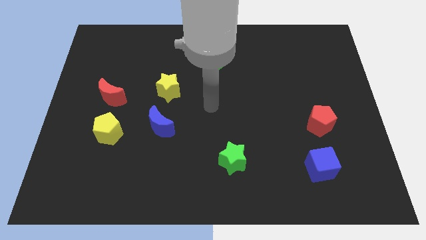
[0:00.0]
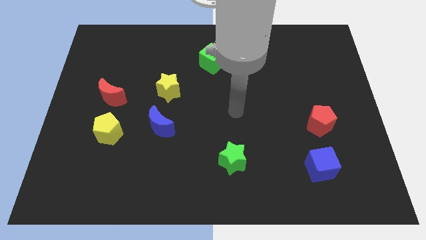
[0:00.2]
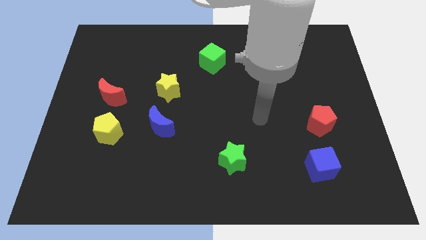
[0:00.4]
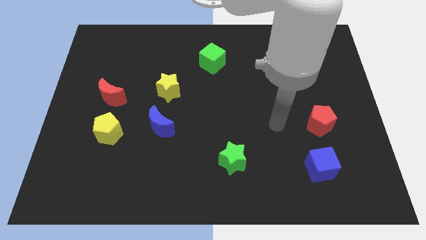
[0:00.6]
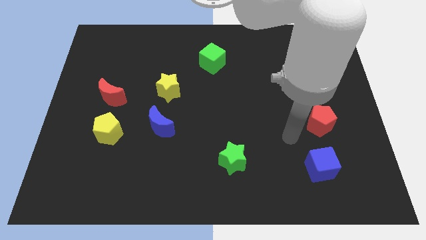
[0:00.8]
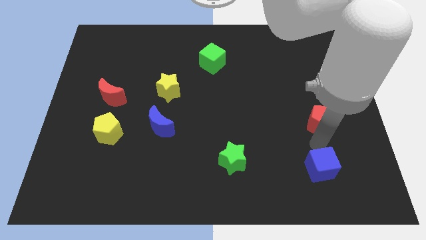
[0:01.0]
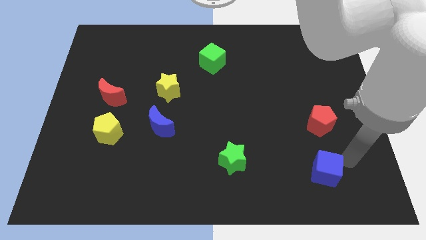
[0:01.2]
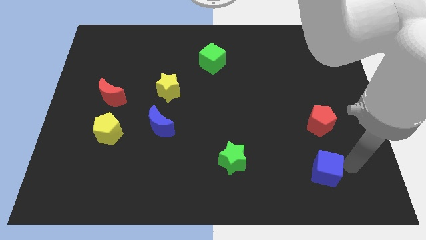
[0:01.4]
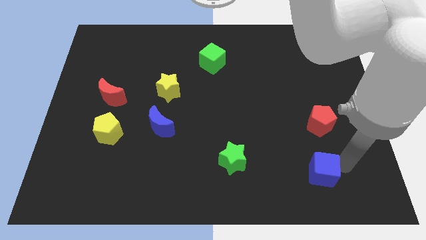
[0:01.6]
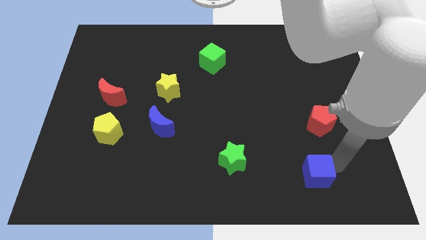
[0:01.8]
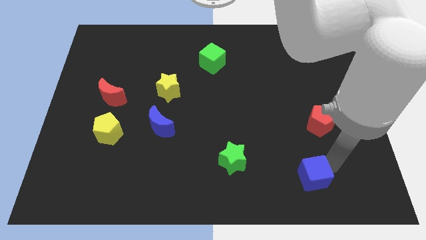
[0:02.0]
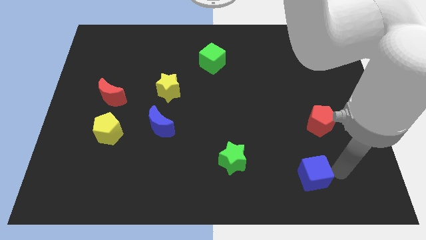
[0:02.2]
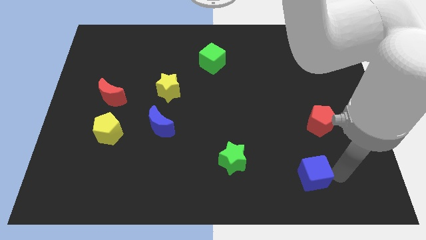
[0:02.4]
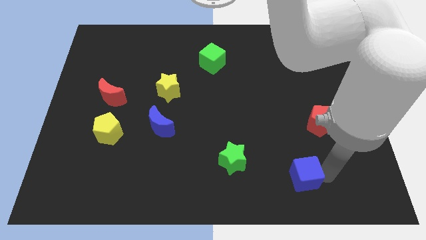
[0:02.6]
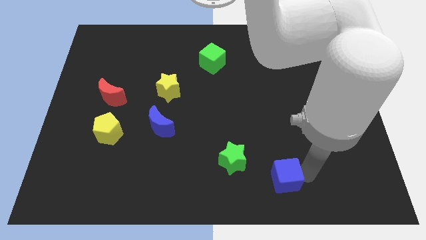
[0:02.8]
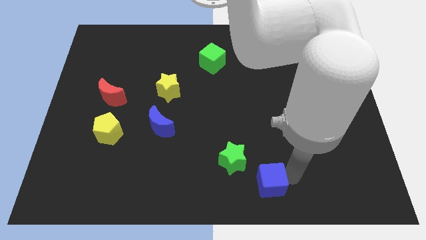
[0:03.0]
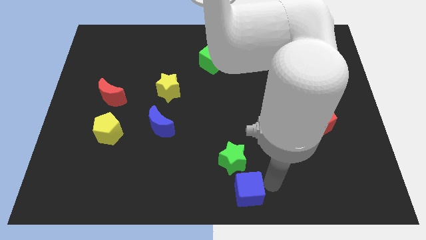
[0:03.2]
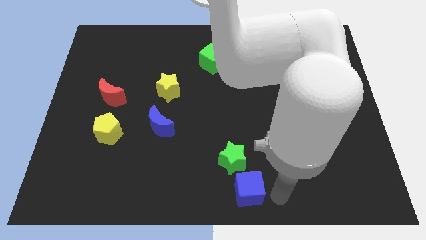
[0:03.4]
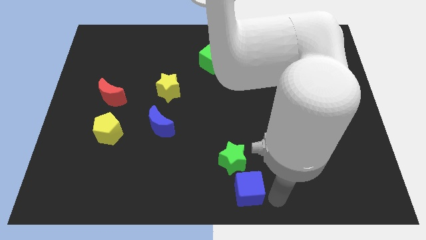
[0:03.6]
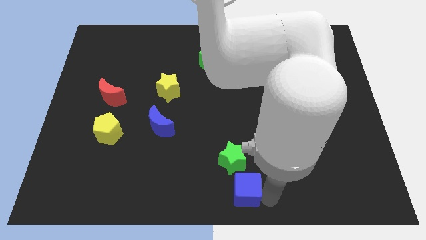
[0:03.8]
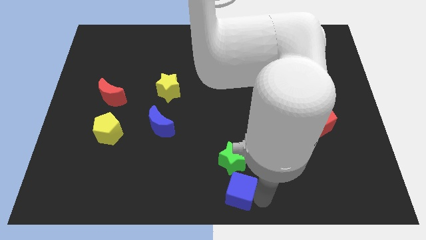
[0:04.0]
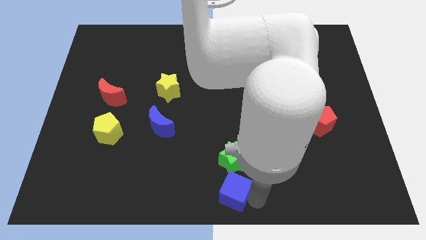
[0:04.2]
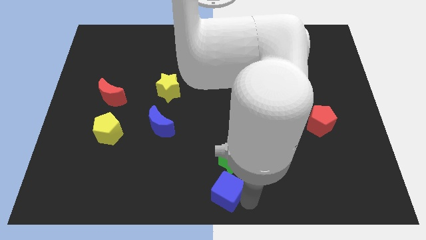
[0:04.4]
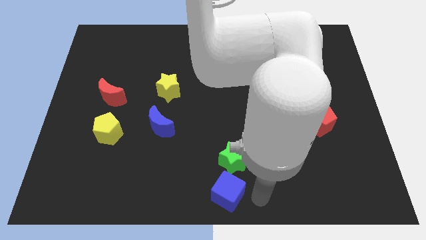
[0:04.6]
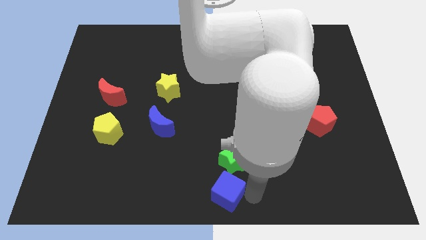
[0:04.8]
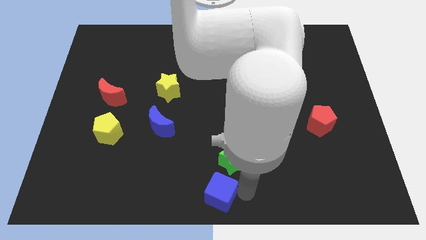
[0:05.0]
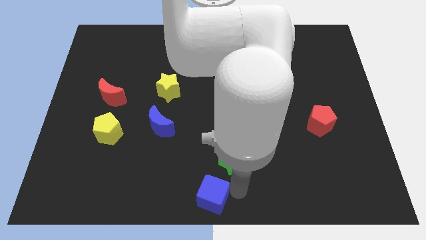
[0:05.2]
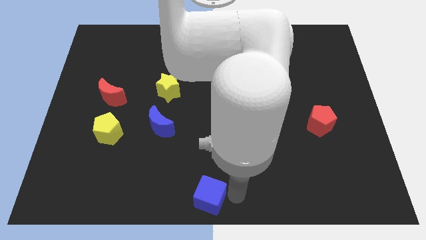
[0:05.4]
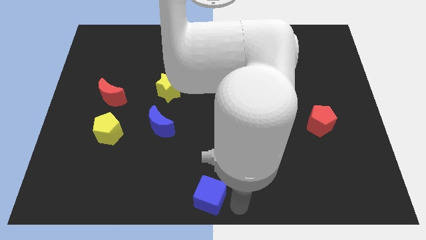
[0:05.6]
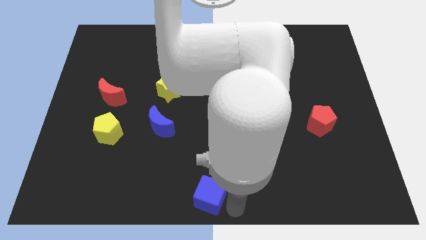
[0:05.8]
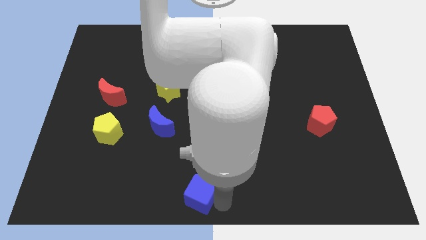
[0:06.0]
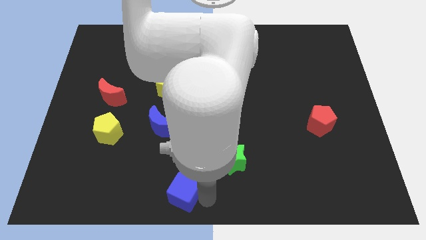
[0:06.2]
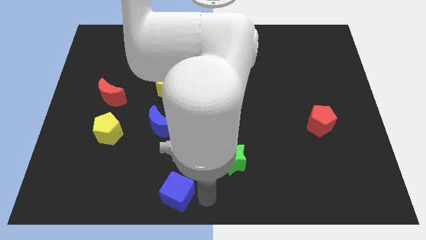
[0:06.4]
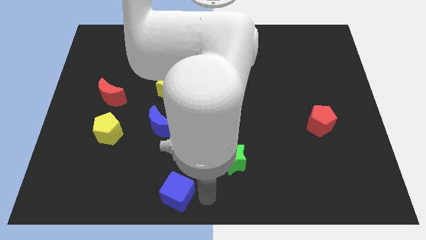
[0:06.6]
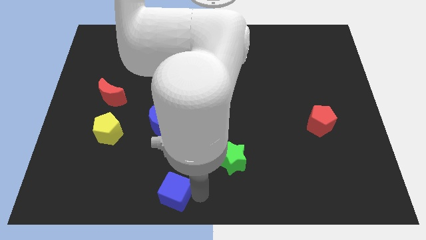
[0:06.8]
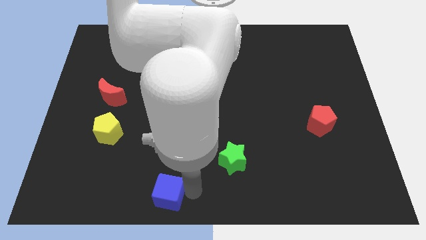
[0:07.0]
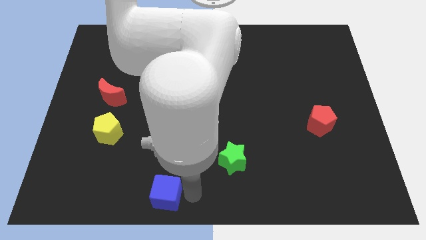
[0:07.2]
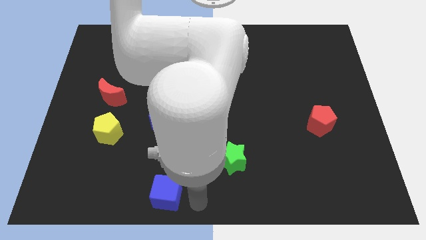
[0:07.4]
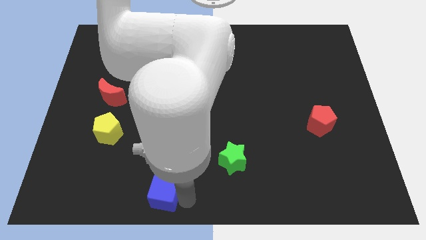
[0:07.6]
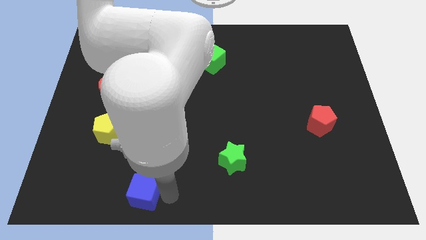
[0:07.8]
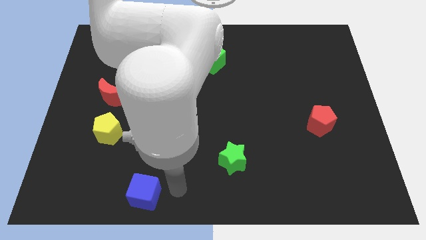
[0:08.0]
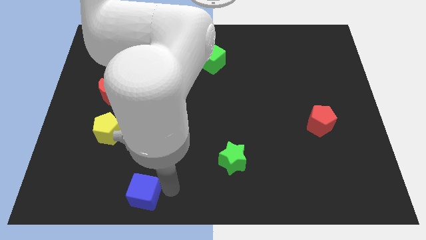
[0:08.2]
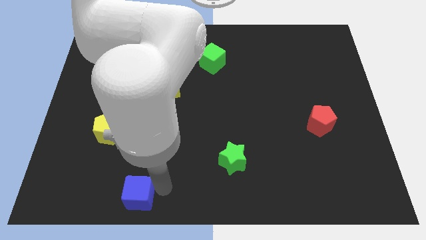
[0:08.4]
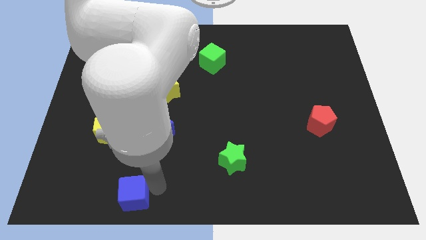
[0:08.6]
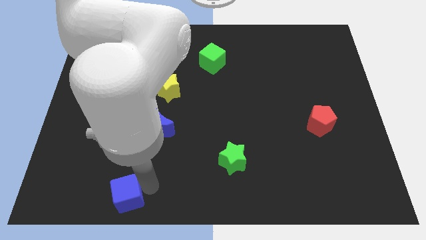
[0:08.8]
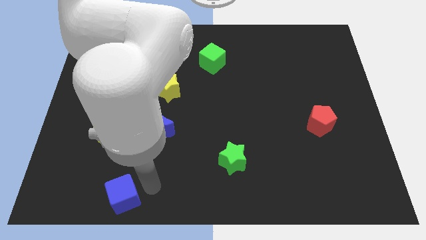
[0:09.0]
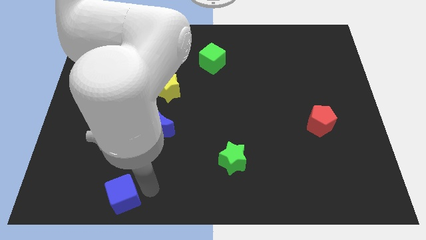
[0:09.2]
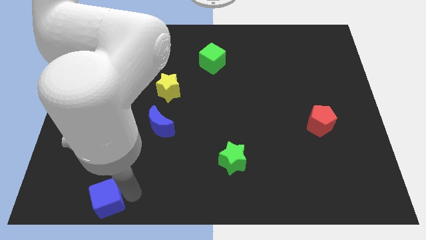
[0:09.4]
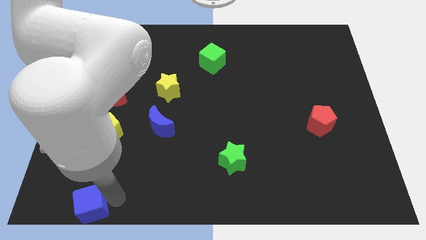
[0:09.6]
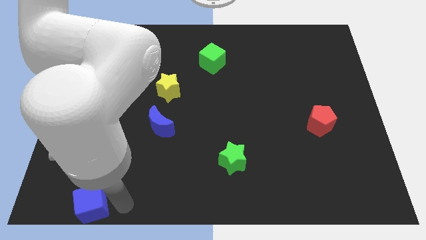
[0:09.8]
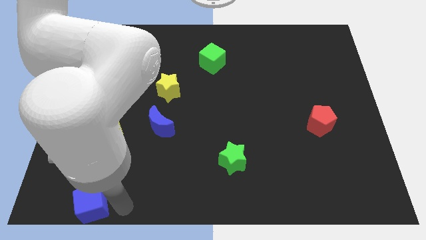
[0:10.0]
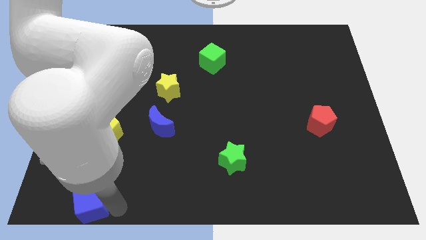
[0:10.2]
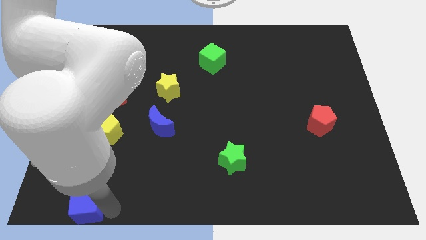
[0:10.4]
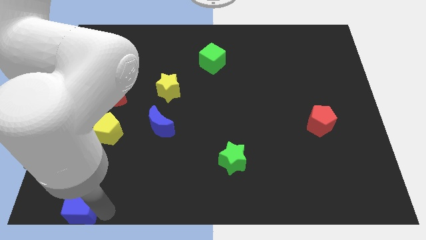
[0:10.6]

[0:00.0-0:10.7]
push the blue cube to the bottom left of the board
